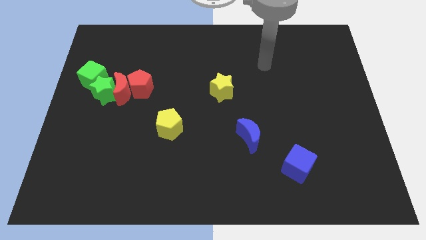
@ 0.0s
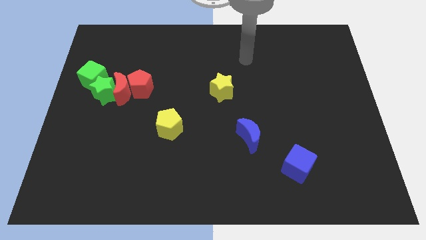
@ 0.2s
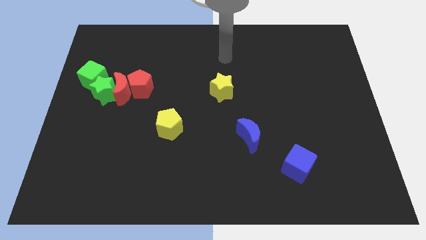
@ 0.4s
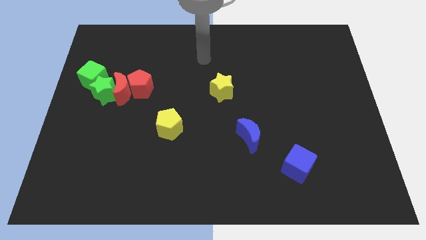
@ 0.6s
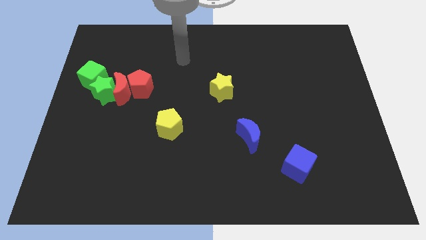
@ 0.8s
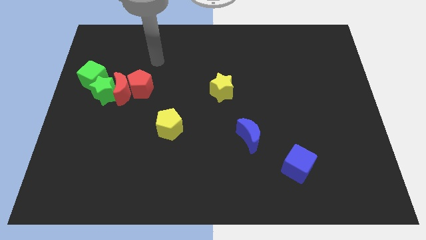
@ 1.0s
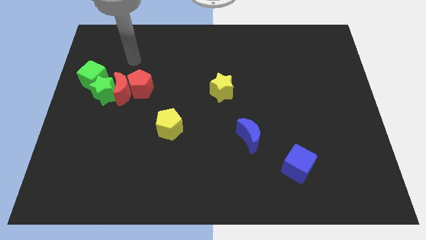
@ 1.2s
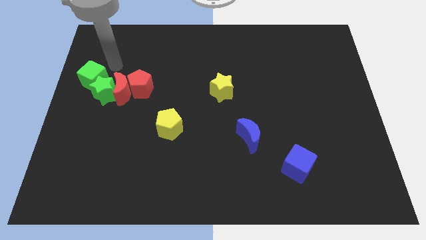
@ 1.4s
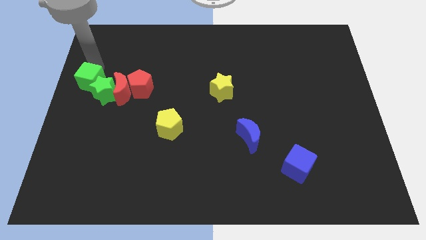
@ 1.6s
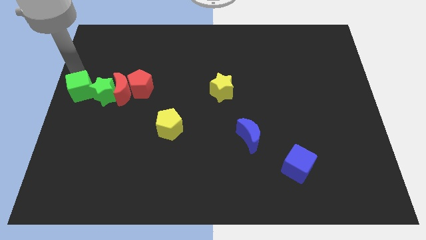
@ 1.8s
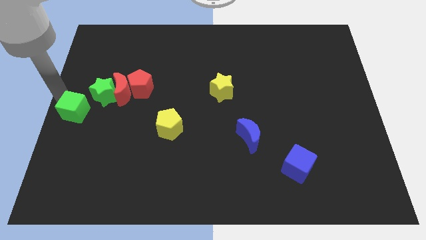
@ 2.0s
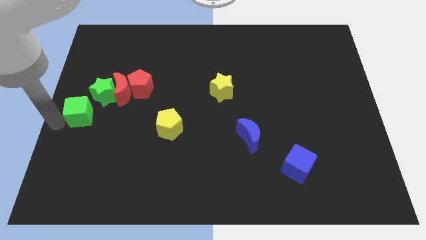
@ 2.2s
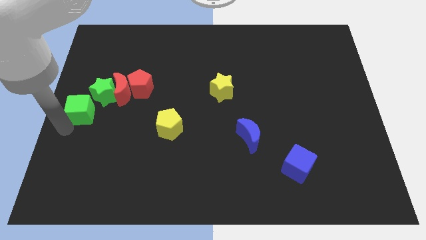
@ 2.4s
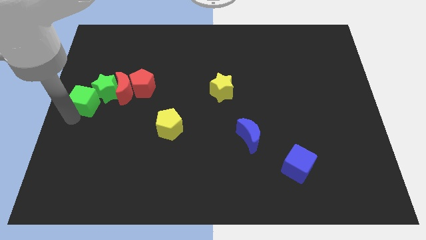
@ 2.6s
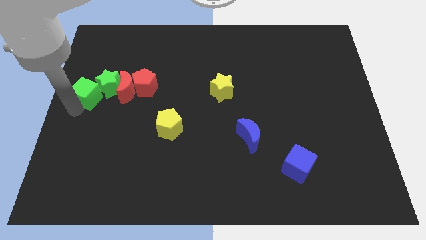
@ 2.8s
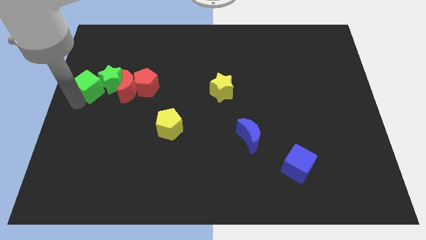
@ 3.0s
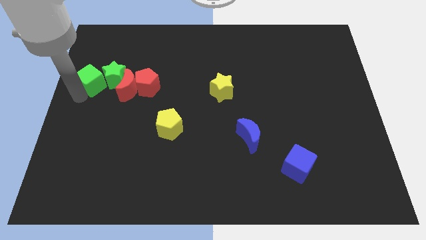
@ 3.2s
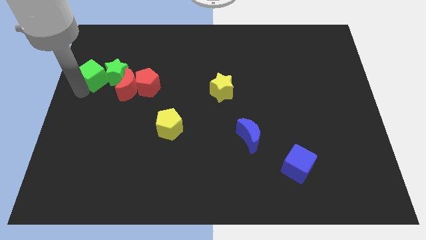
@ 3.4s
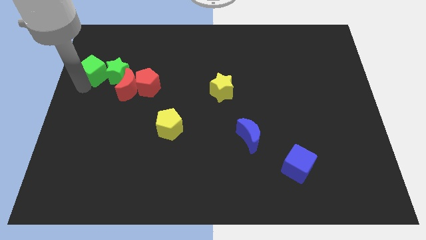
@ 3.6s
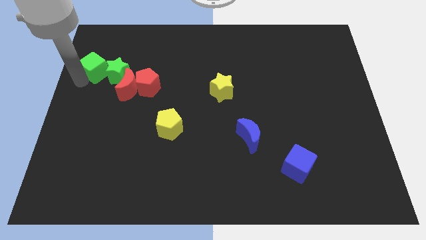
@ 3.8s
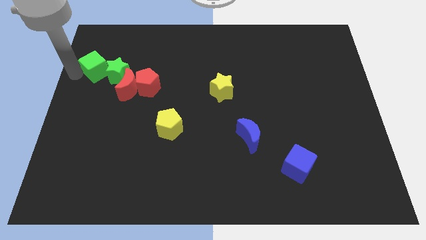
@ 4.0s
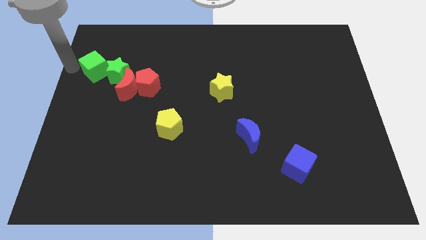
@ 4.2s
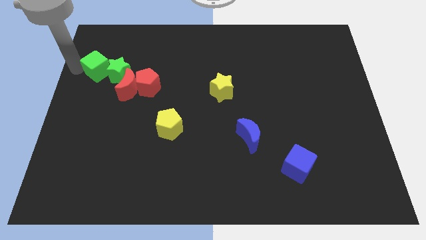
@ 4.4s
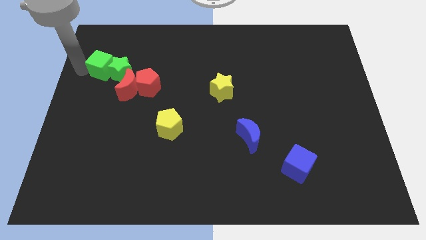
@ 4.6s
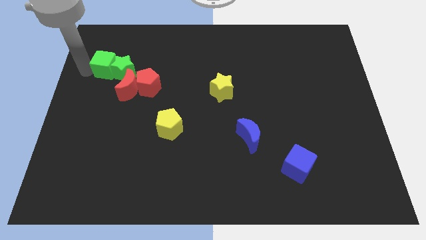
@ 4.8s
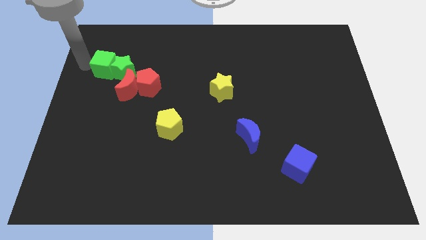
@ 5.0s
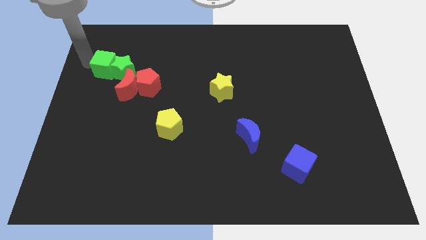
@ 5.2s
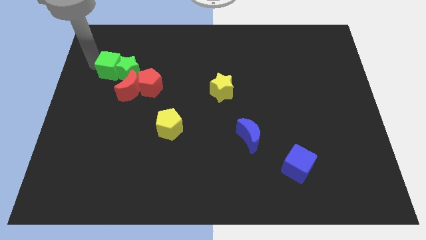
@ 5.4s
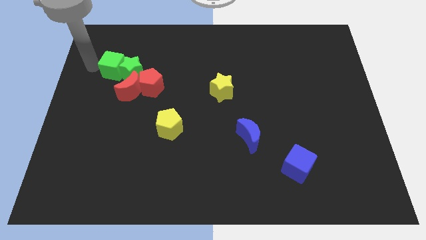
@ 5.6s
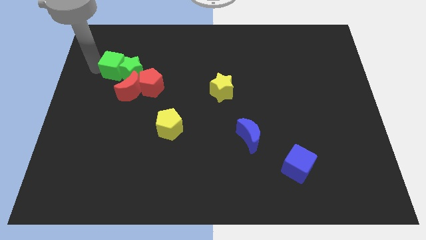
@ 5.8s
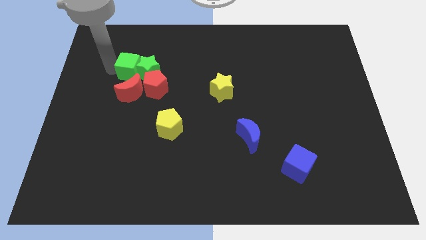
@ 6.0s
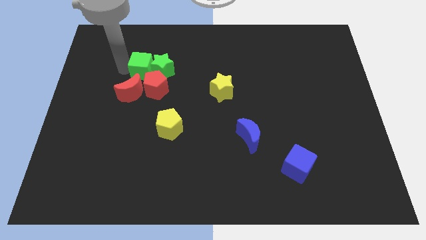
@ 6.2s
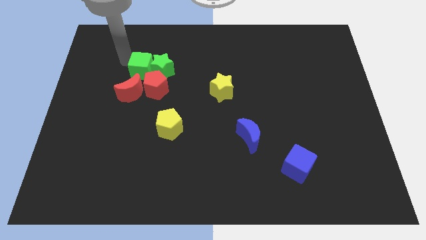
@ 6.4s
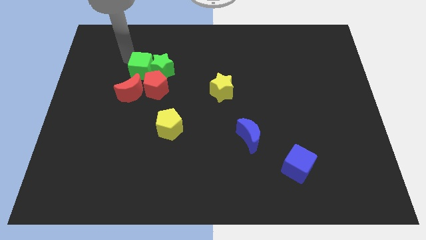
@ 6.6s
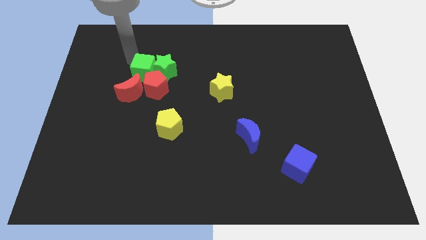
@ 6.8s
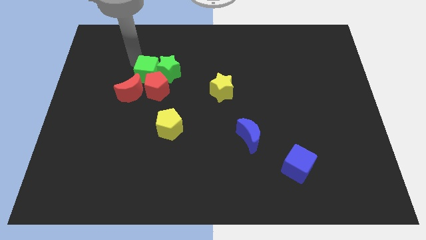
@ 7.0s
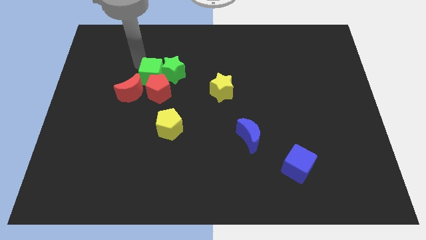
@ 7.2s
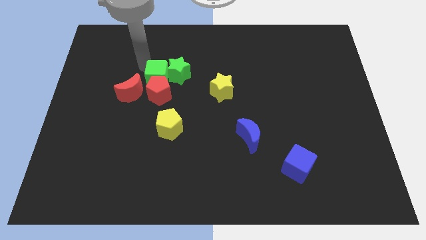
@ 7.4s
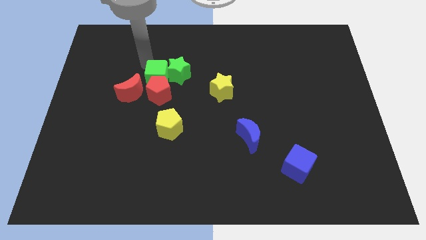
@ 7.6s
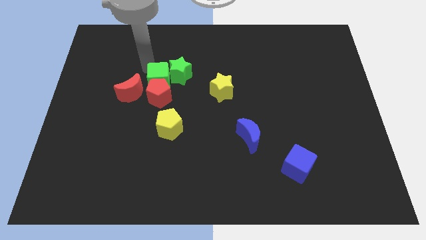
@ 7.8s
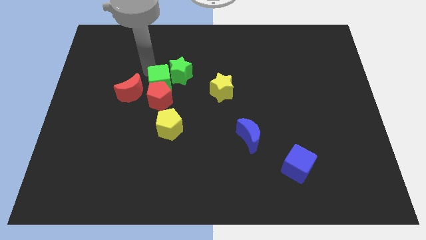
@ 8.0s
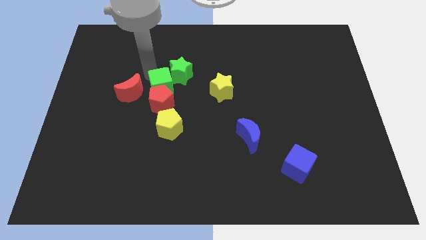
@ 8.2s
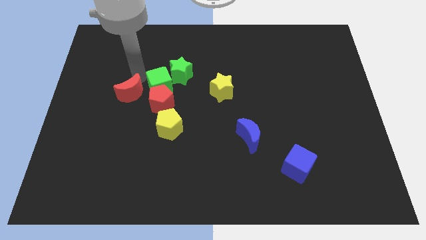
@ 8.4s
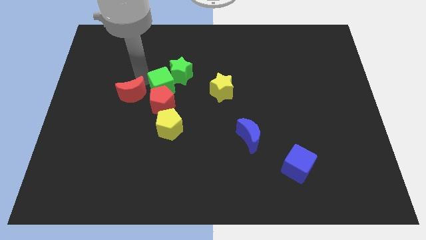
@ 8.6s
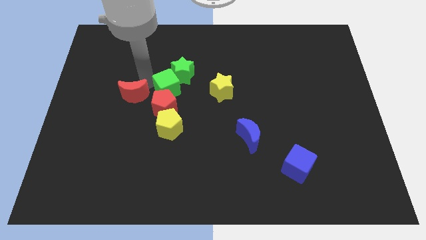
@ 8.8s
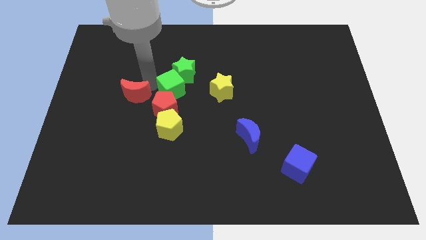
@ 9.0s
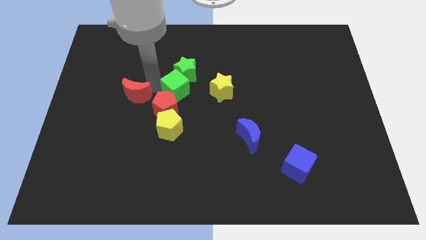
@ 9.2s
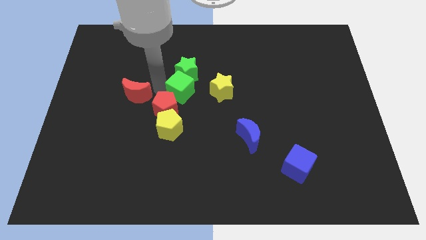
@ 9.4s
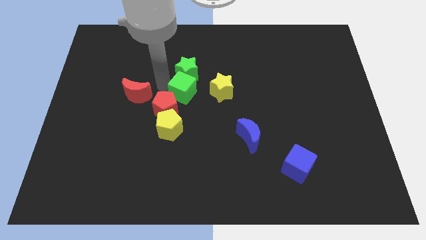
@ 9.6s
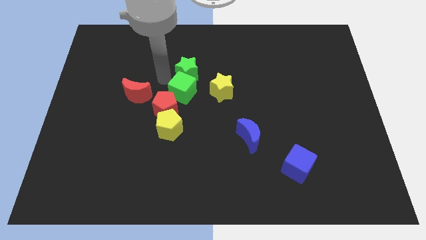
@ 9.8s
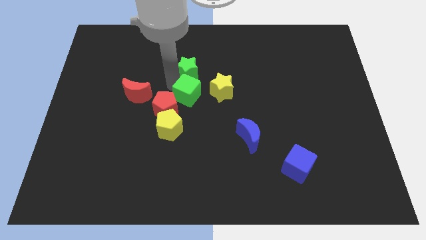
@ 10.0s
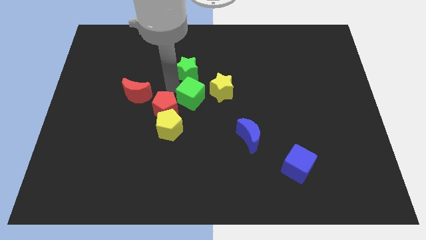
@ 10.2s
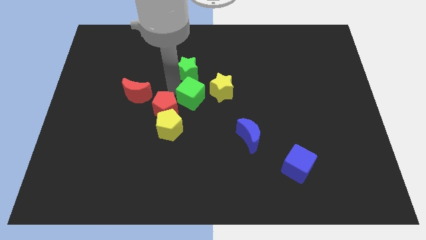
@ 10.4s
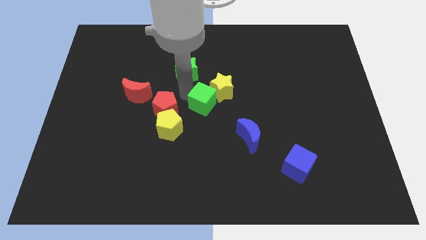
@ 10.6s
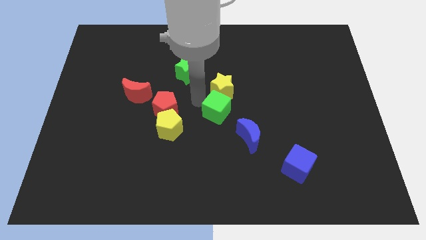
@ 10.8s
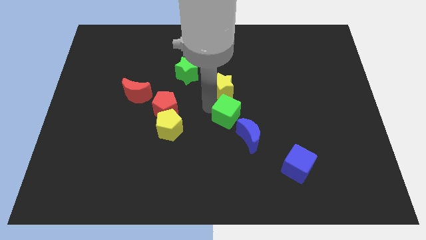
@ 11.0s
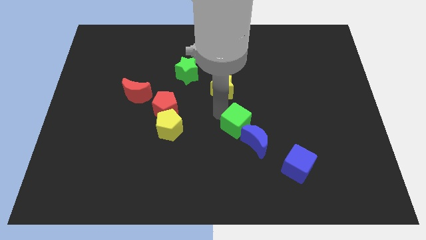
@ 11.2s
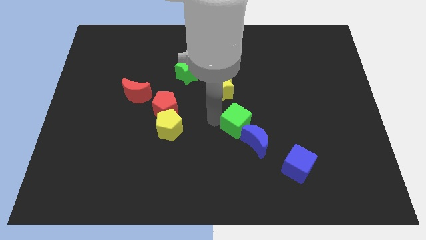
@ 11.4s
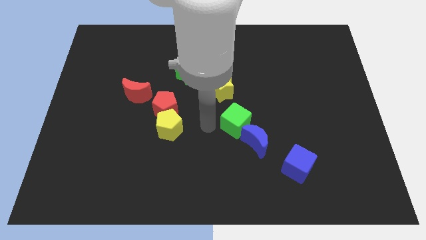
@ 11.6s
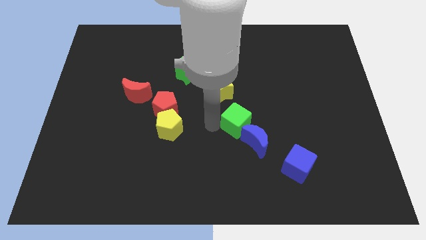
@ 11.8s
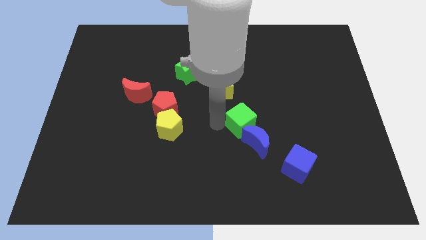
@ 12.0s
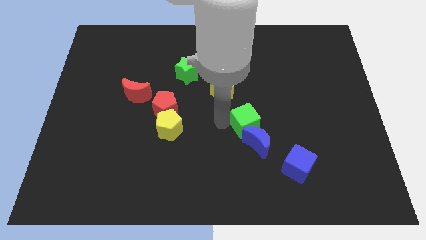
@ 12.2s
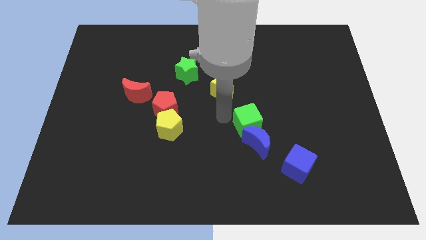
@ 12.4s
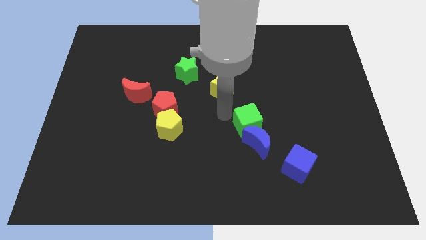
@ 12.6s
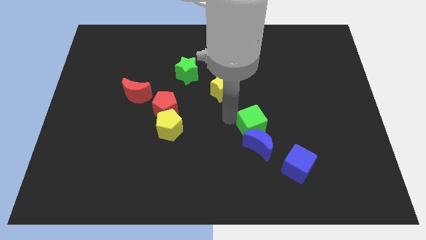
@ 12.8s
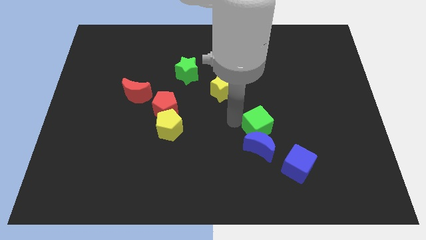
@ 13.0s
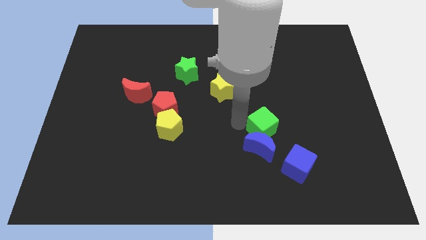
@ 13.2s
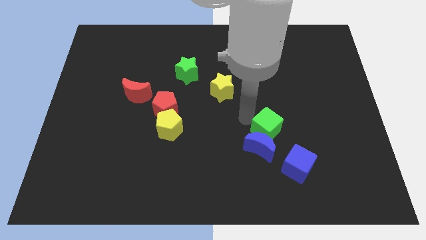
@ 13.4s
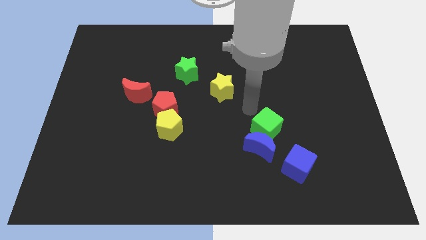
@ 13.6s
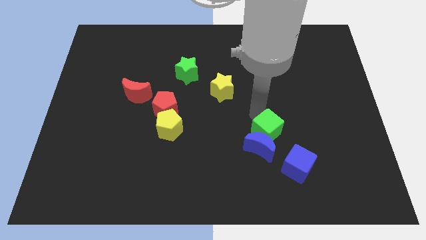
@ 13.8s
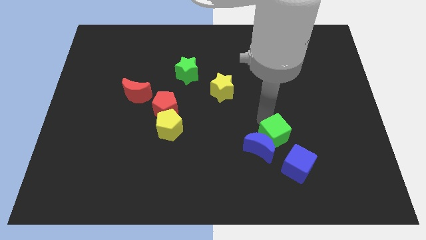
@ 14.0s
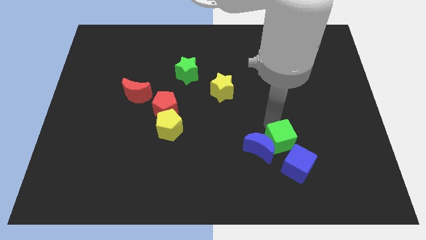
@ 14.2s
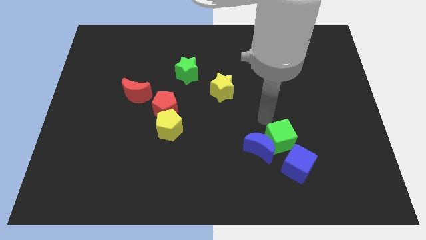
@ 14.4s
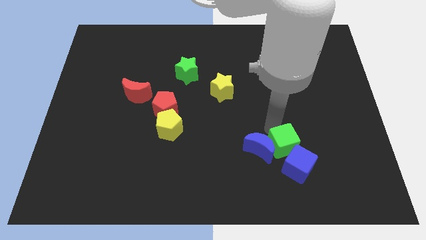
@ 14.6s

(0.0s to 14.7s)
push the green cube next to the blue cube
